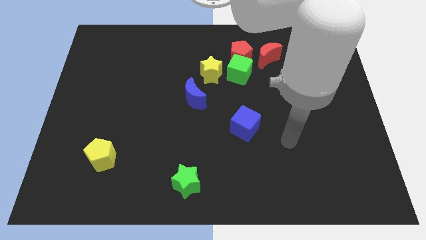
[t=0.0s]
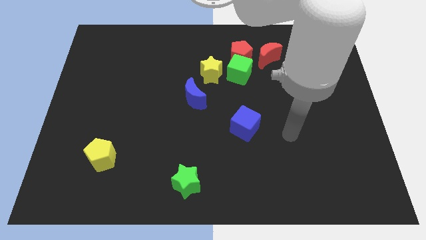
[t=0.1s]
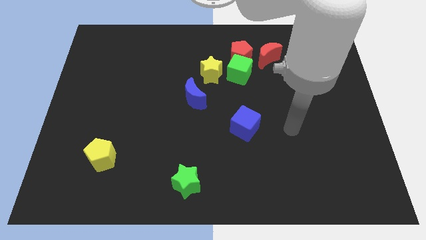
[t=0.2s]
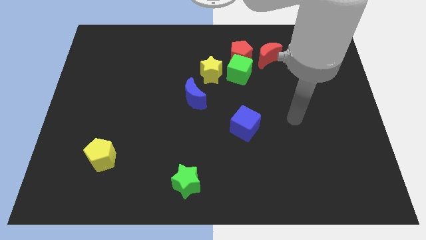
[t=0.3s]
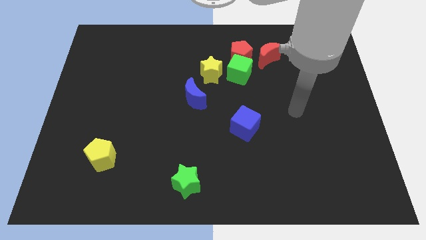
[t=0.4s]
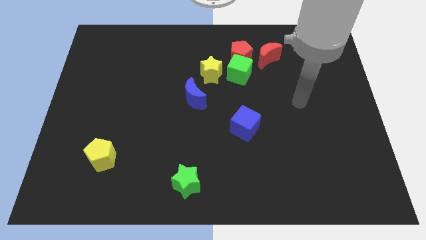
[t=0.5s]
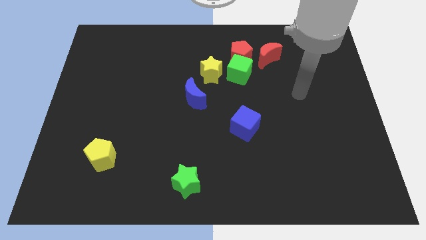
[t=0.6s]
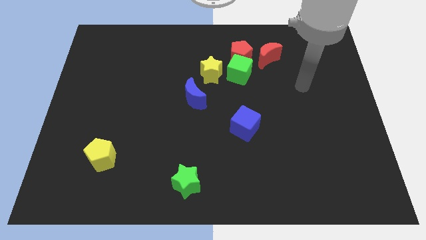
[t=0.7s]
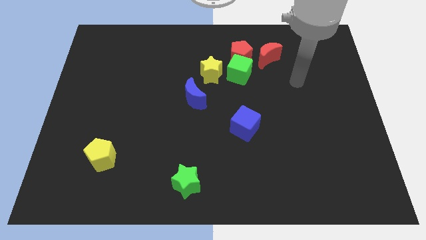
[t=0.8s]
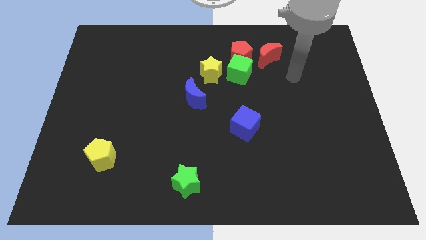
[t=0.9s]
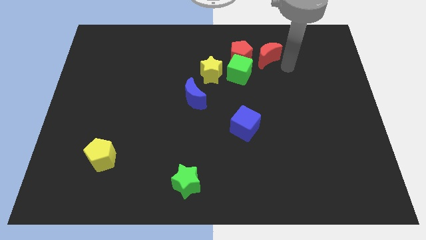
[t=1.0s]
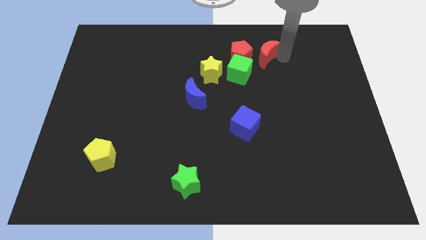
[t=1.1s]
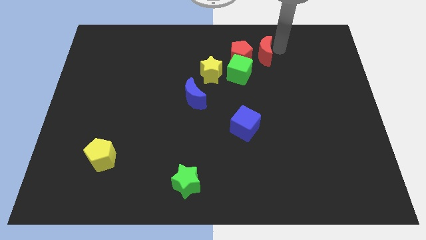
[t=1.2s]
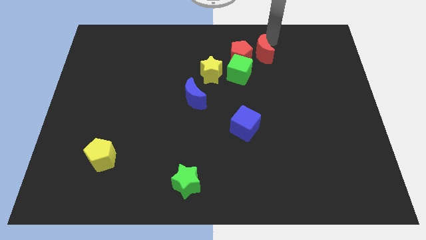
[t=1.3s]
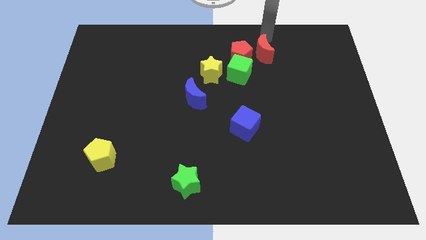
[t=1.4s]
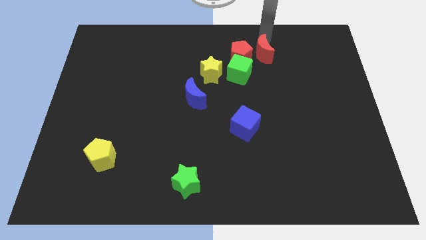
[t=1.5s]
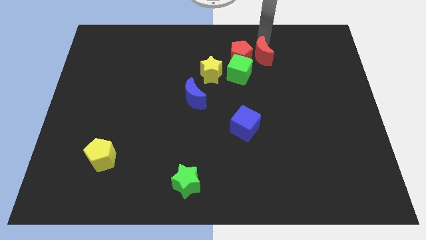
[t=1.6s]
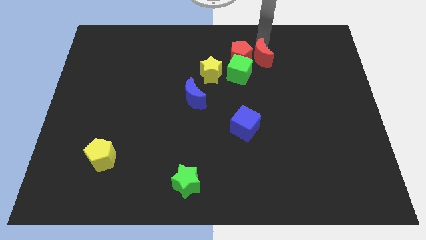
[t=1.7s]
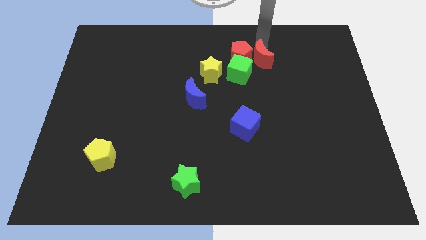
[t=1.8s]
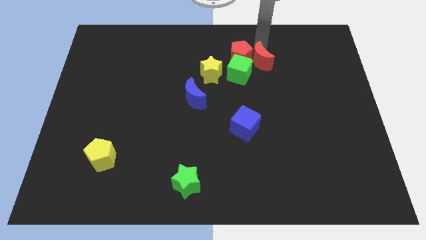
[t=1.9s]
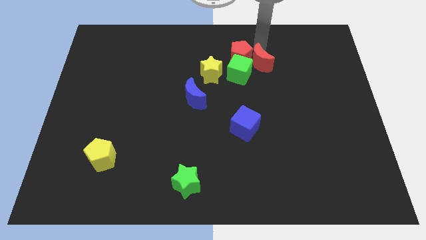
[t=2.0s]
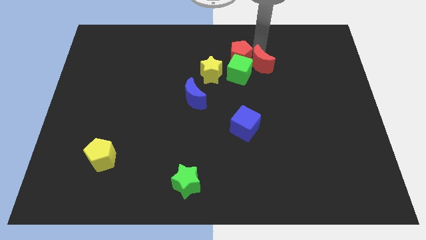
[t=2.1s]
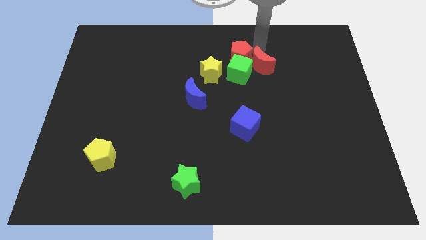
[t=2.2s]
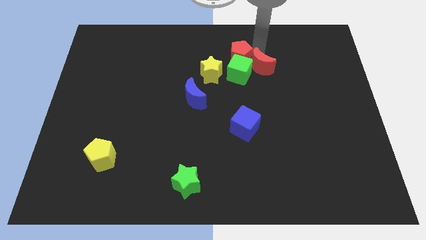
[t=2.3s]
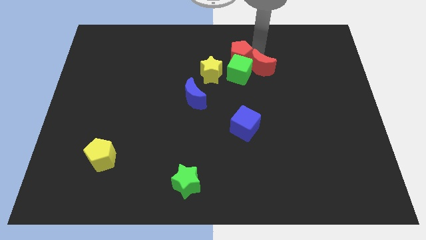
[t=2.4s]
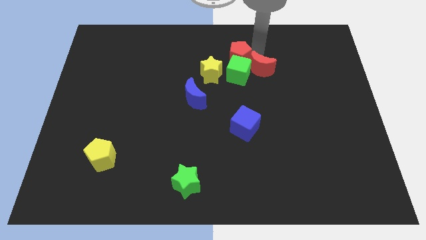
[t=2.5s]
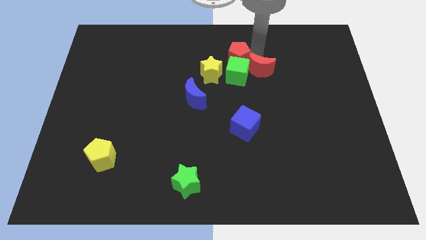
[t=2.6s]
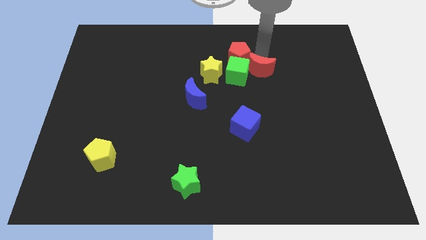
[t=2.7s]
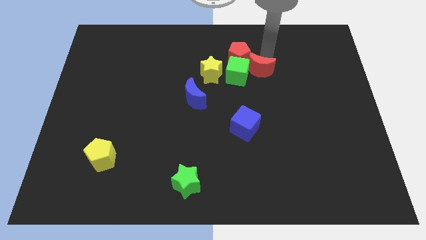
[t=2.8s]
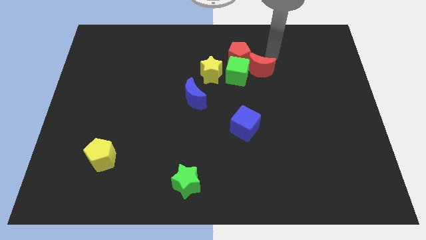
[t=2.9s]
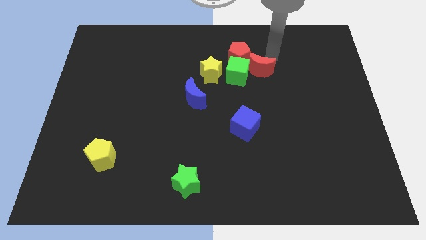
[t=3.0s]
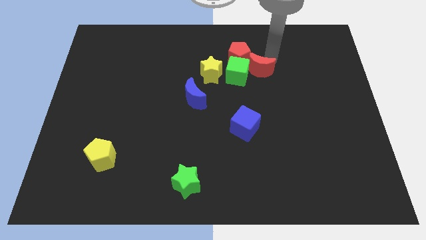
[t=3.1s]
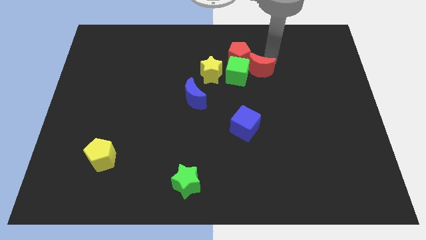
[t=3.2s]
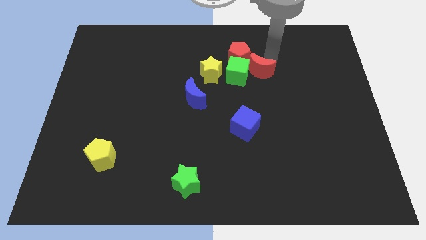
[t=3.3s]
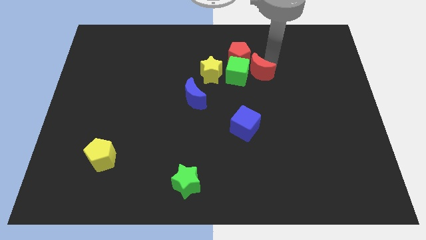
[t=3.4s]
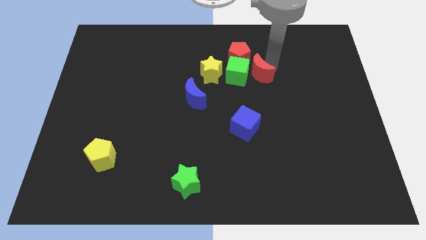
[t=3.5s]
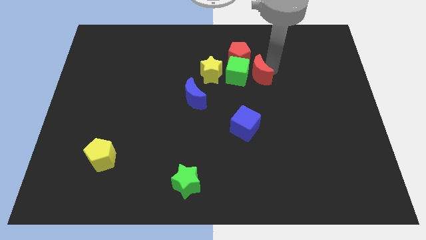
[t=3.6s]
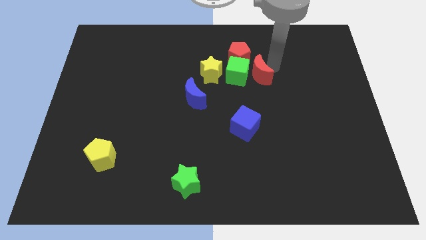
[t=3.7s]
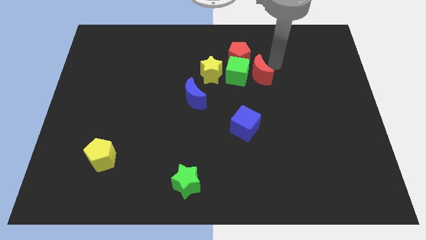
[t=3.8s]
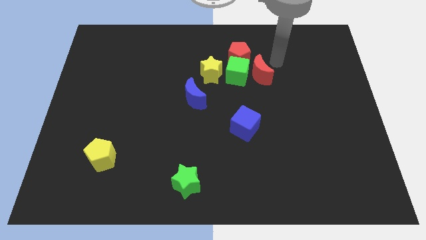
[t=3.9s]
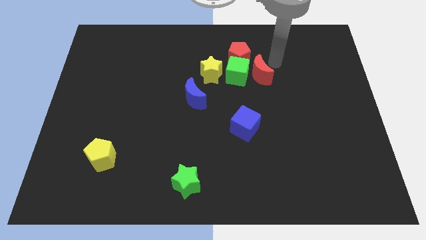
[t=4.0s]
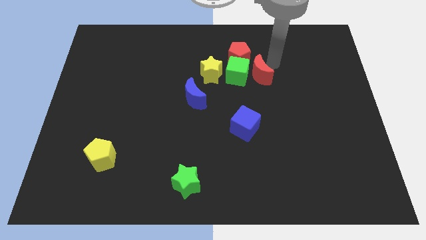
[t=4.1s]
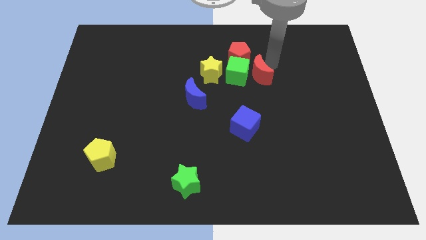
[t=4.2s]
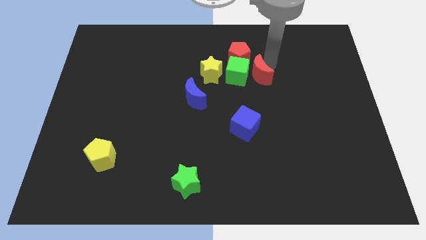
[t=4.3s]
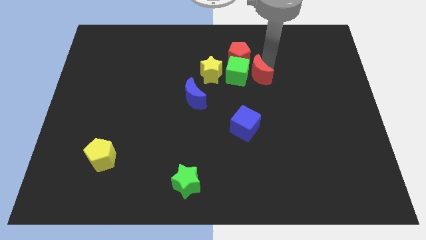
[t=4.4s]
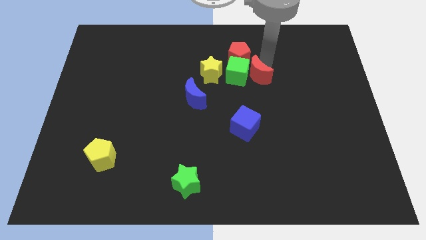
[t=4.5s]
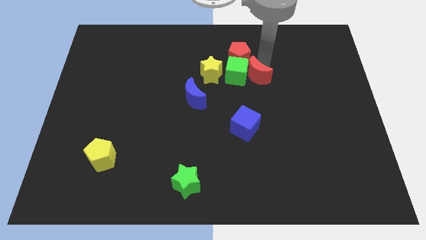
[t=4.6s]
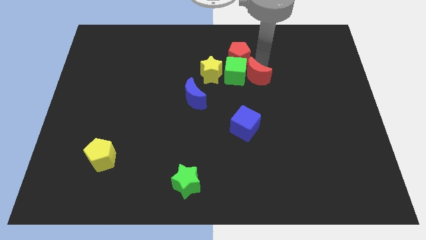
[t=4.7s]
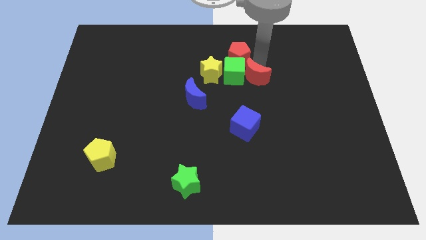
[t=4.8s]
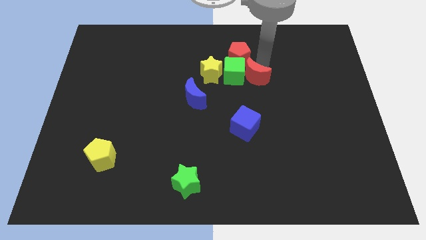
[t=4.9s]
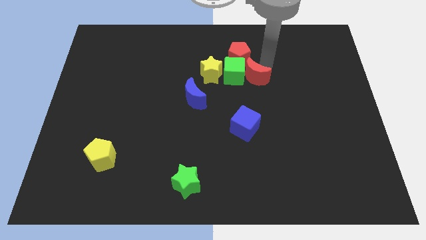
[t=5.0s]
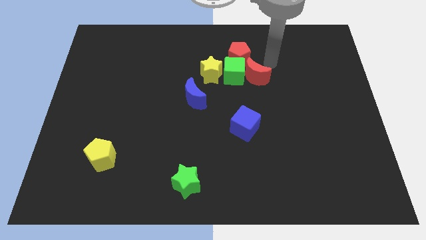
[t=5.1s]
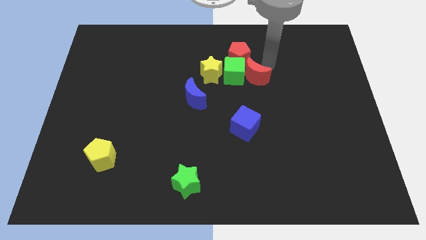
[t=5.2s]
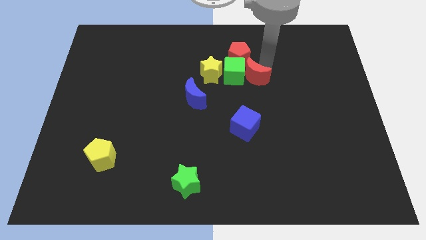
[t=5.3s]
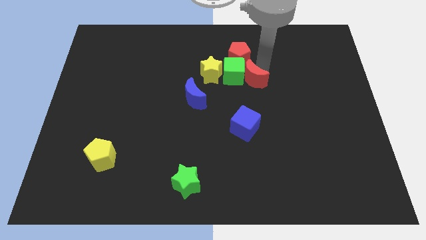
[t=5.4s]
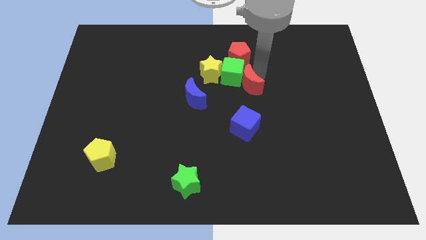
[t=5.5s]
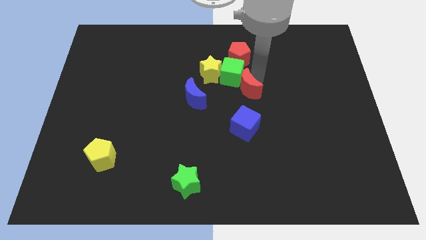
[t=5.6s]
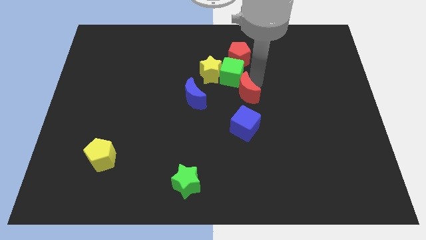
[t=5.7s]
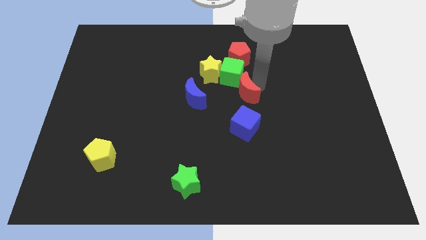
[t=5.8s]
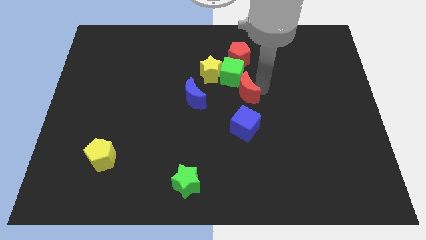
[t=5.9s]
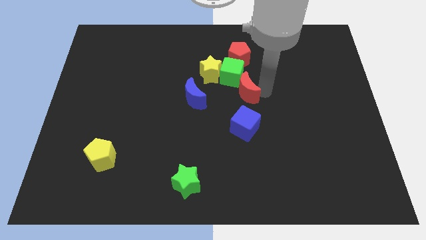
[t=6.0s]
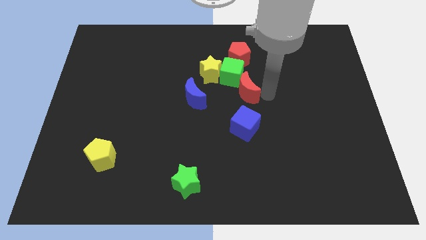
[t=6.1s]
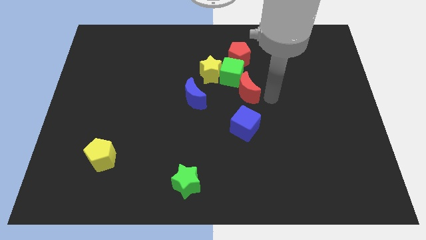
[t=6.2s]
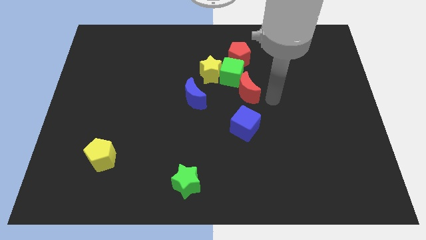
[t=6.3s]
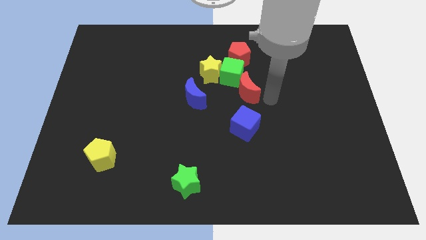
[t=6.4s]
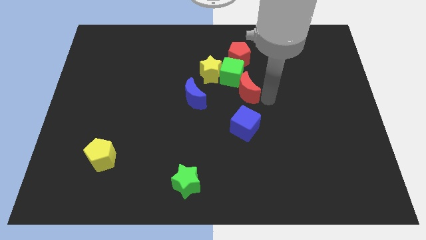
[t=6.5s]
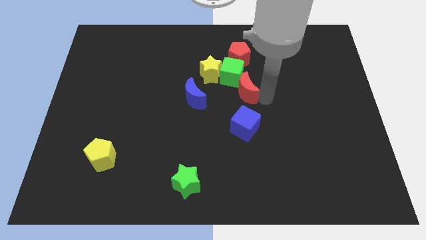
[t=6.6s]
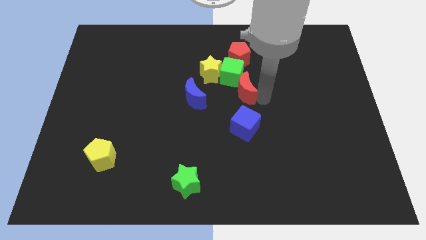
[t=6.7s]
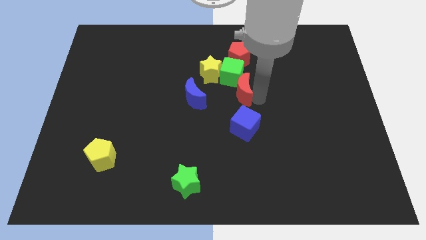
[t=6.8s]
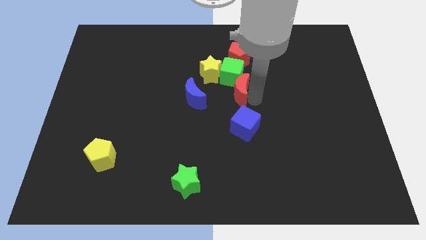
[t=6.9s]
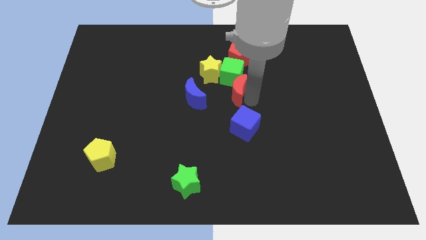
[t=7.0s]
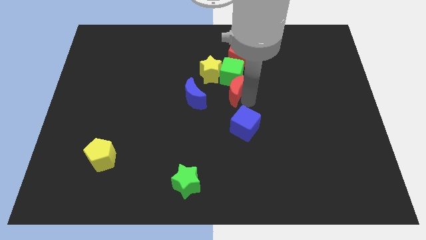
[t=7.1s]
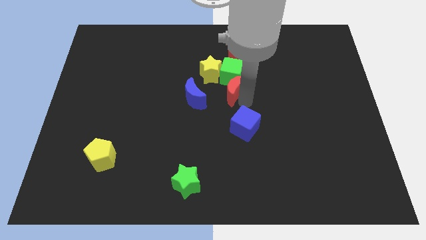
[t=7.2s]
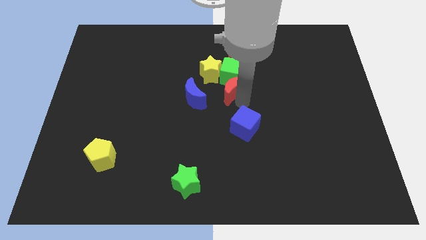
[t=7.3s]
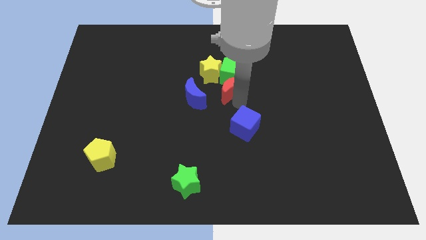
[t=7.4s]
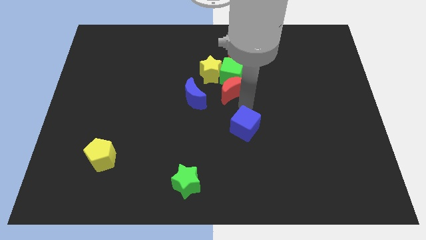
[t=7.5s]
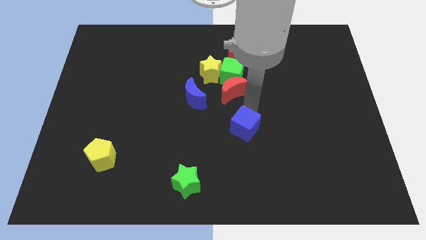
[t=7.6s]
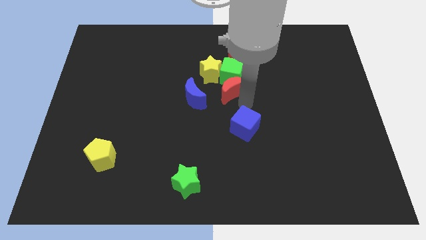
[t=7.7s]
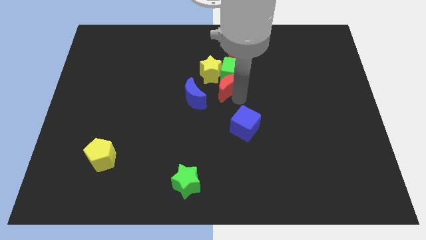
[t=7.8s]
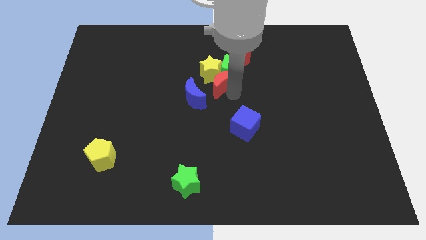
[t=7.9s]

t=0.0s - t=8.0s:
put the red moon next to the yellow star
